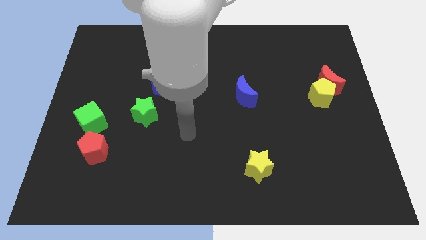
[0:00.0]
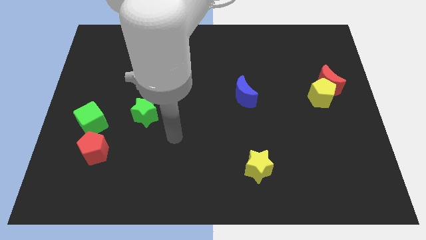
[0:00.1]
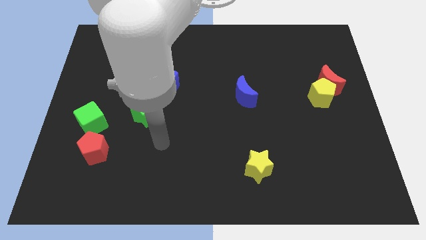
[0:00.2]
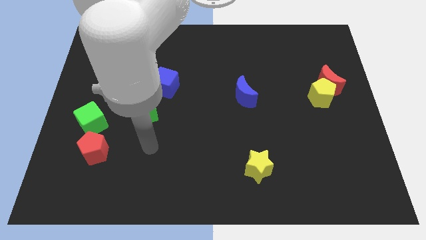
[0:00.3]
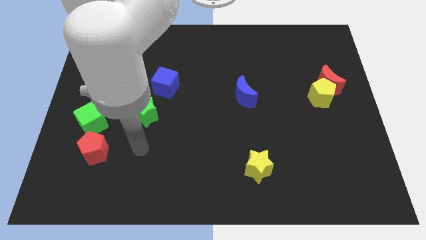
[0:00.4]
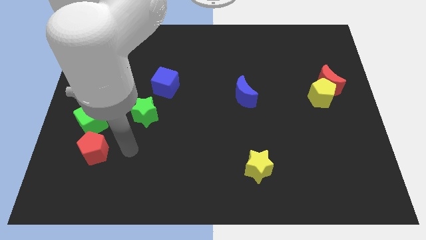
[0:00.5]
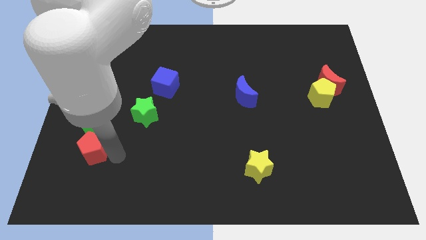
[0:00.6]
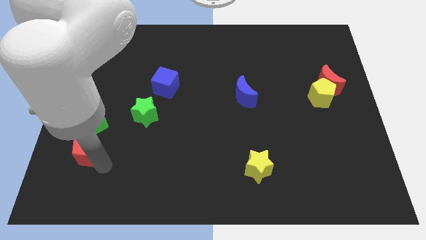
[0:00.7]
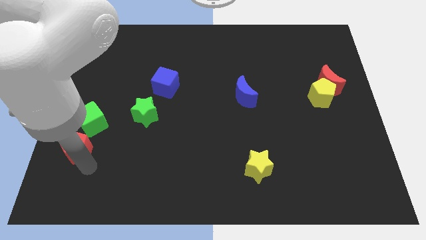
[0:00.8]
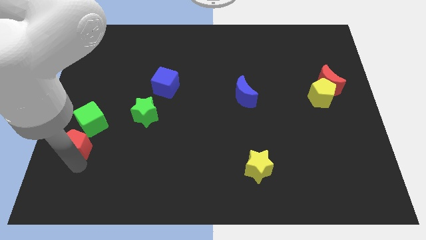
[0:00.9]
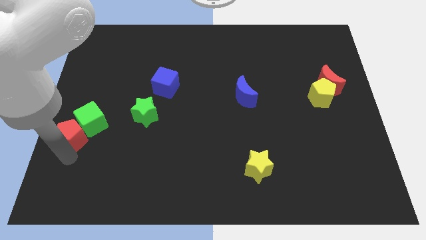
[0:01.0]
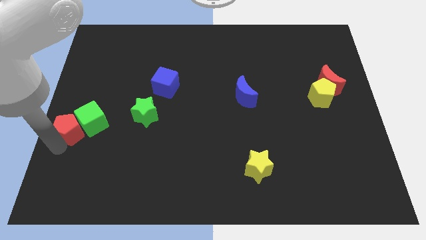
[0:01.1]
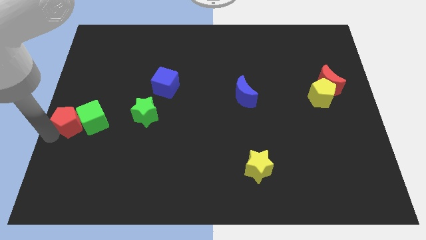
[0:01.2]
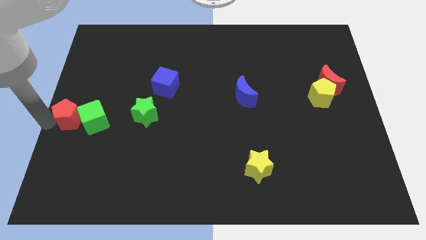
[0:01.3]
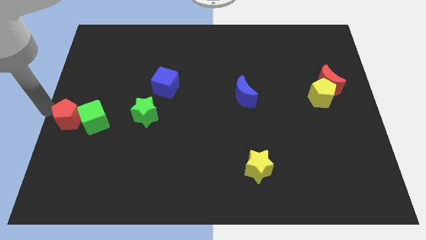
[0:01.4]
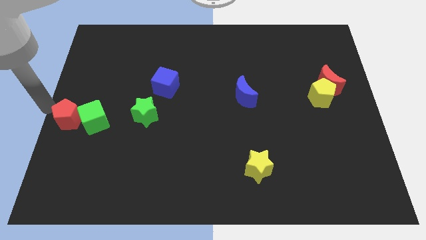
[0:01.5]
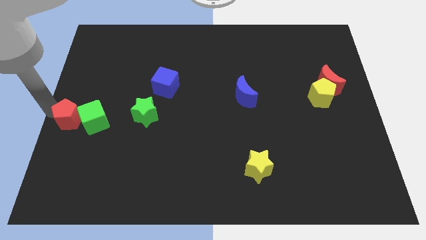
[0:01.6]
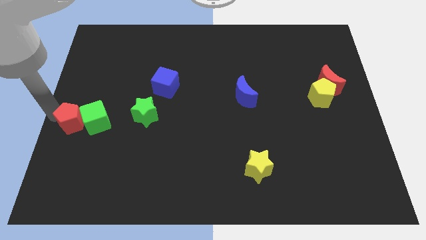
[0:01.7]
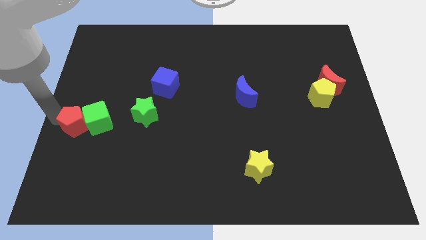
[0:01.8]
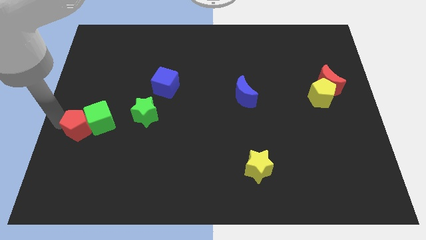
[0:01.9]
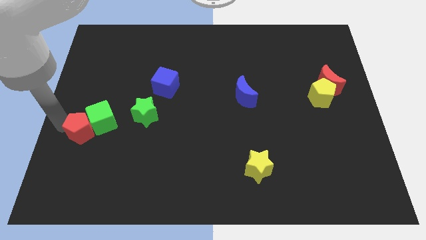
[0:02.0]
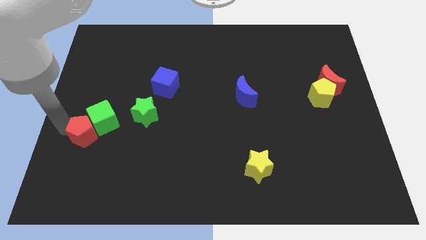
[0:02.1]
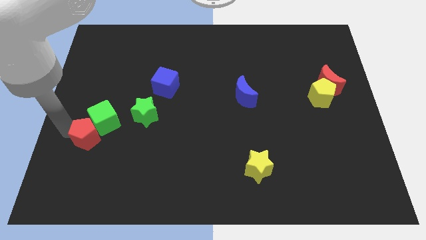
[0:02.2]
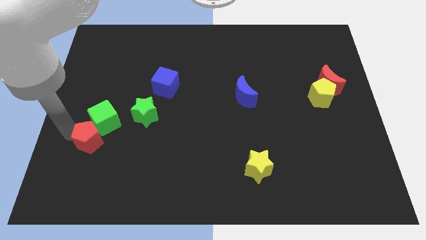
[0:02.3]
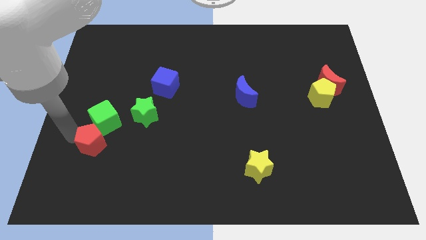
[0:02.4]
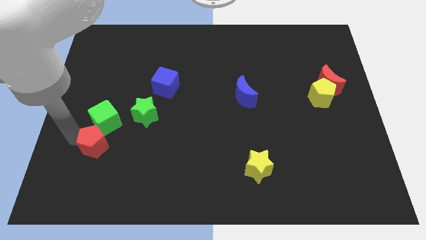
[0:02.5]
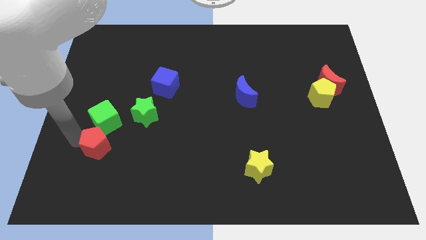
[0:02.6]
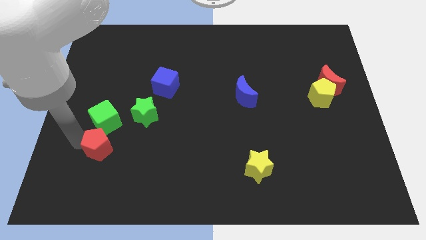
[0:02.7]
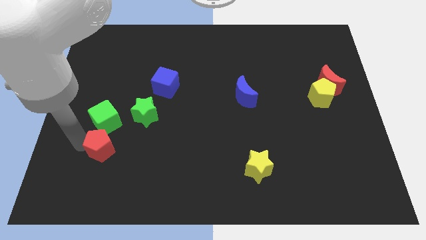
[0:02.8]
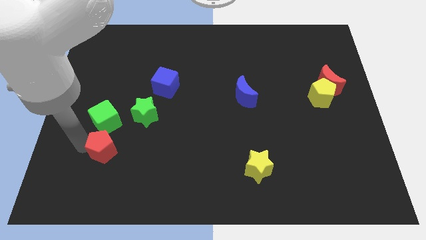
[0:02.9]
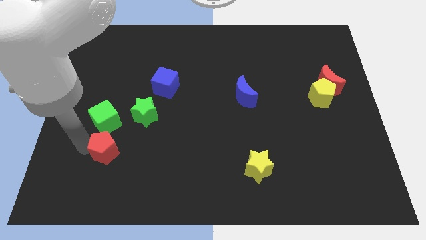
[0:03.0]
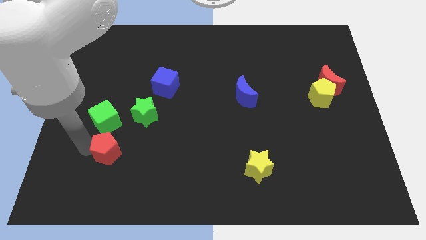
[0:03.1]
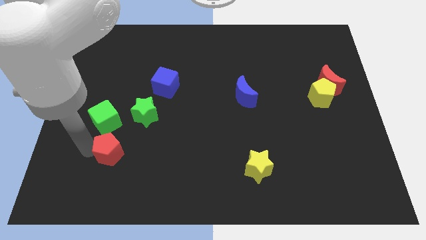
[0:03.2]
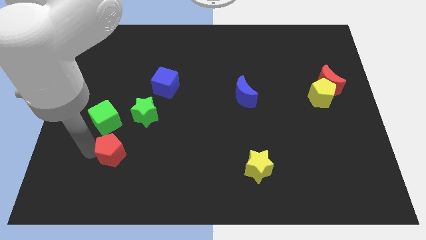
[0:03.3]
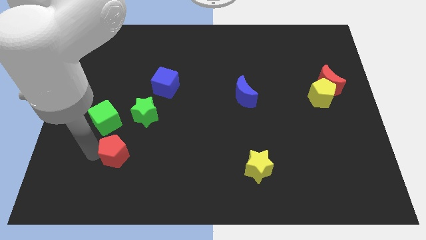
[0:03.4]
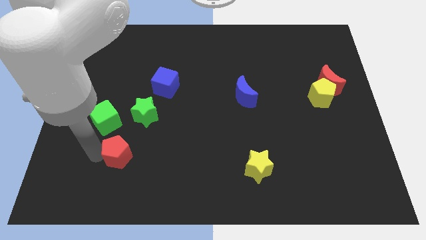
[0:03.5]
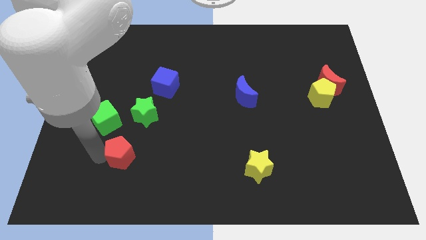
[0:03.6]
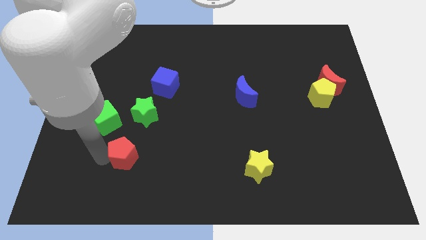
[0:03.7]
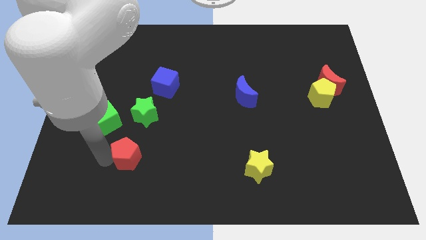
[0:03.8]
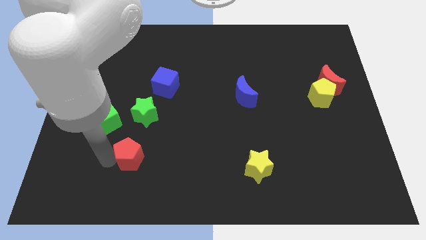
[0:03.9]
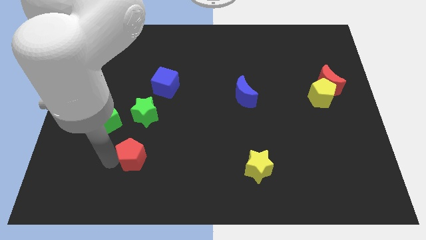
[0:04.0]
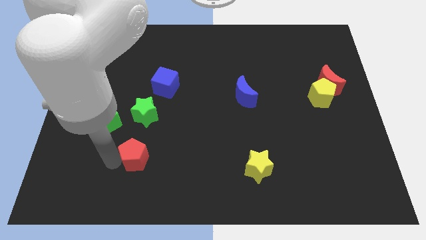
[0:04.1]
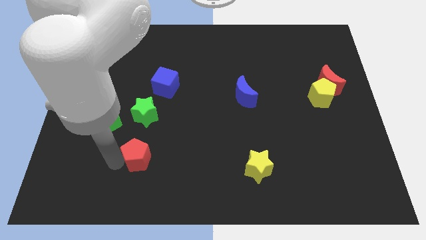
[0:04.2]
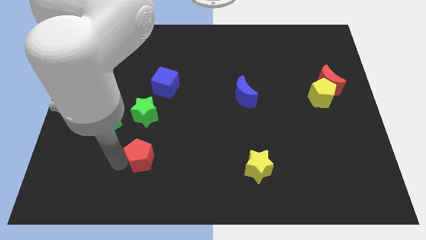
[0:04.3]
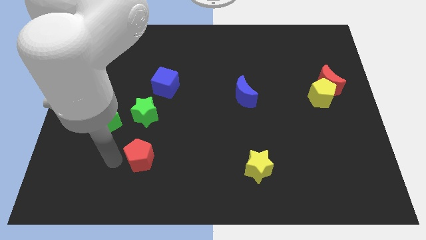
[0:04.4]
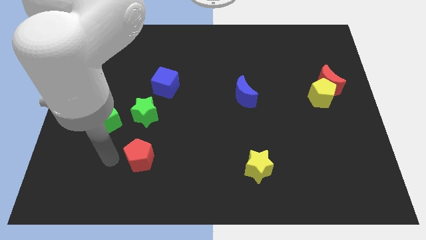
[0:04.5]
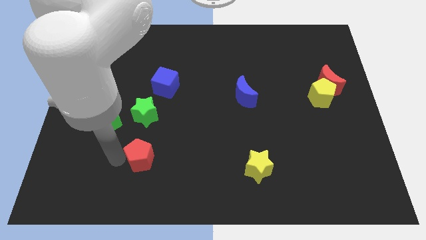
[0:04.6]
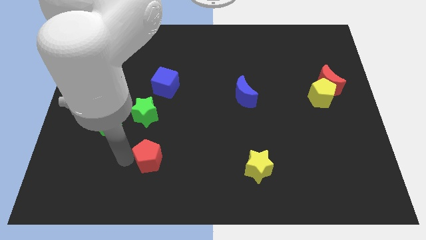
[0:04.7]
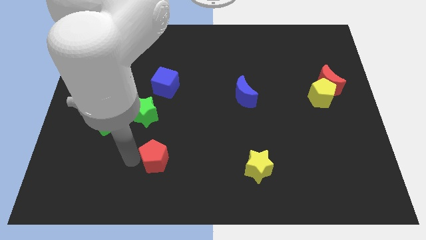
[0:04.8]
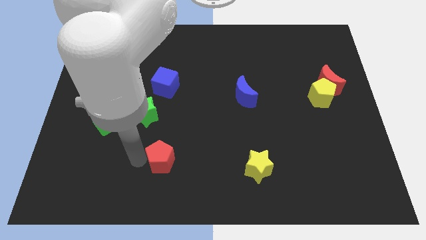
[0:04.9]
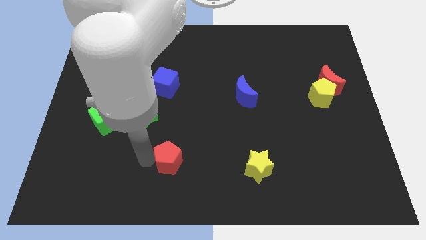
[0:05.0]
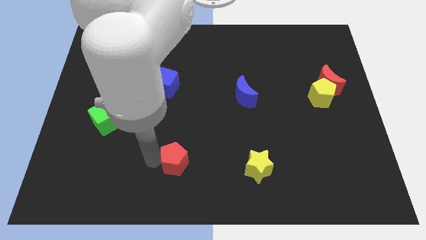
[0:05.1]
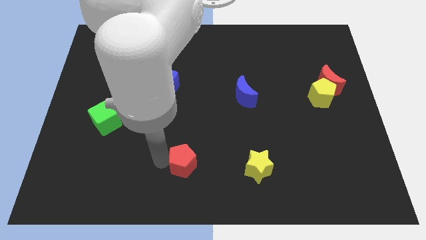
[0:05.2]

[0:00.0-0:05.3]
slide the red pentagon to the left of the yellow star

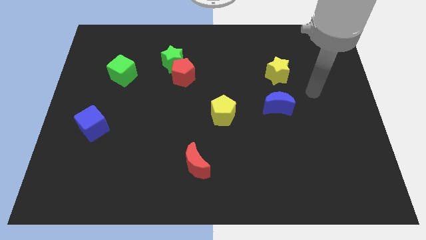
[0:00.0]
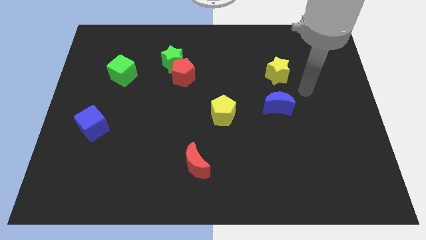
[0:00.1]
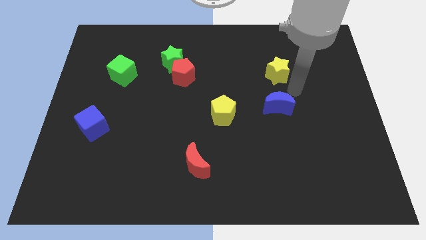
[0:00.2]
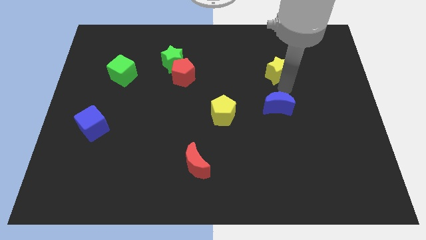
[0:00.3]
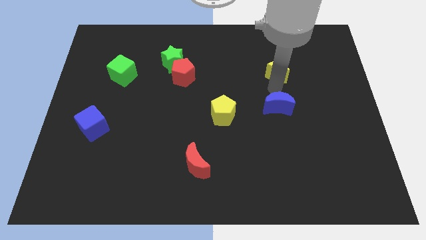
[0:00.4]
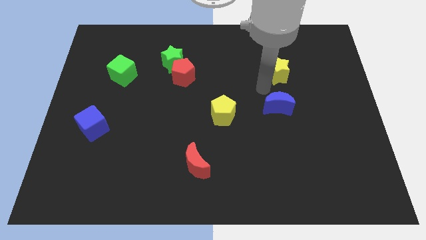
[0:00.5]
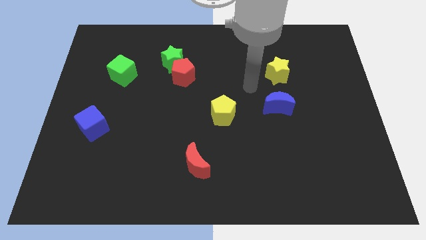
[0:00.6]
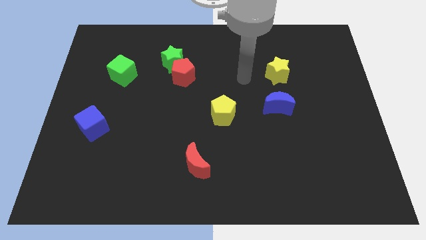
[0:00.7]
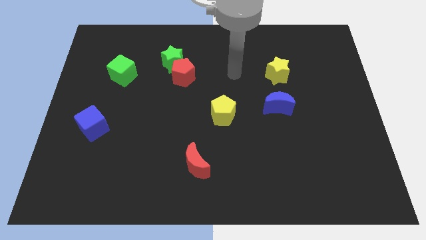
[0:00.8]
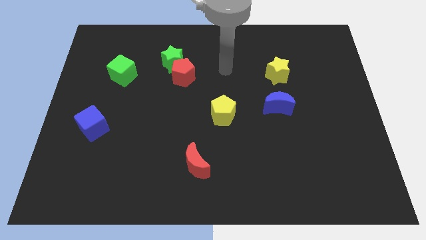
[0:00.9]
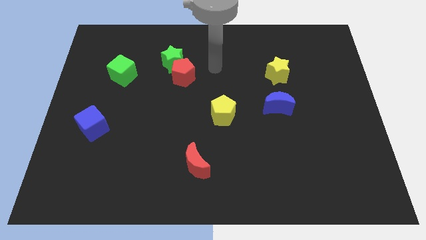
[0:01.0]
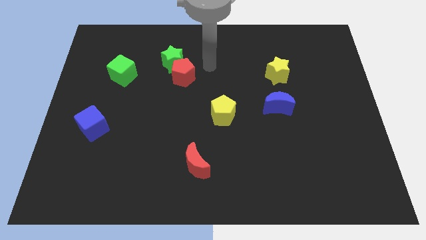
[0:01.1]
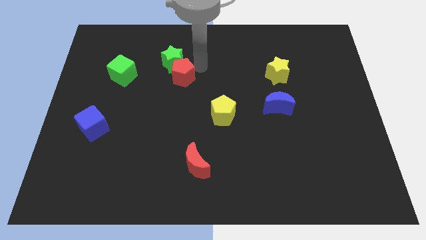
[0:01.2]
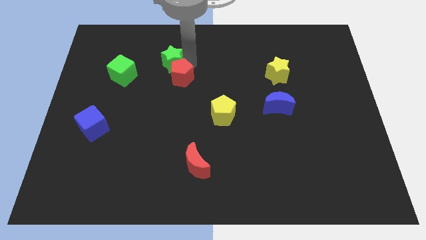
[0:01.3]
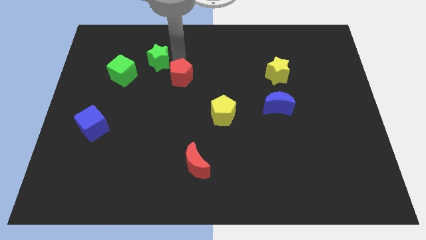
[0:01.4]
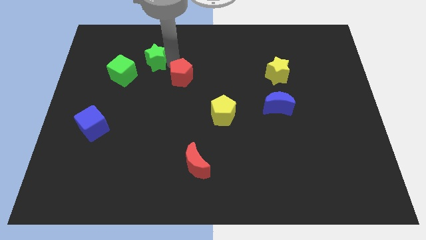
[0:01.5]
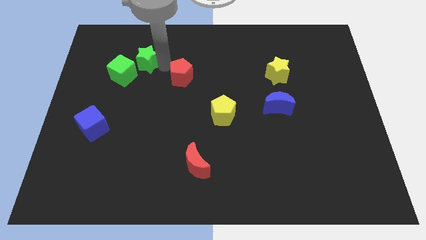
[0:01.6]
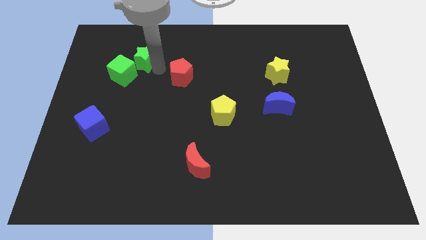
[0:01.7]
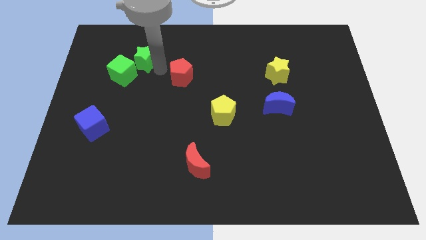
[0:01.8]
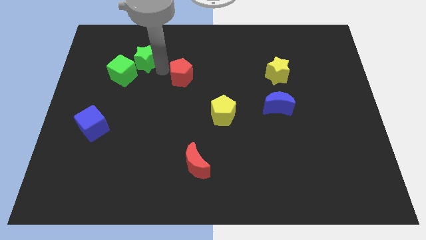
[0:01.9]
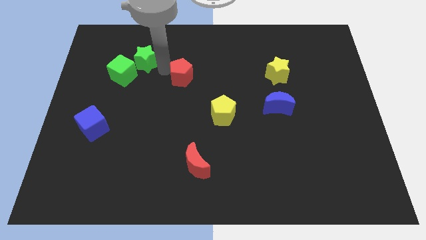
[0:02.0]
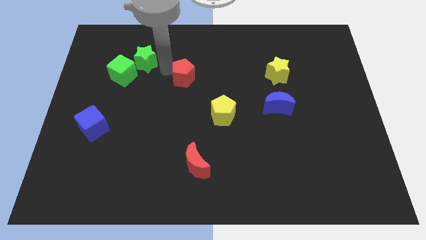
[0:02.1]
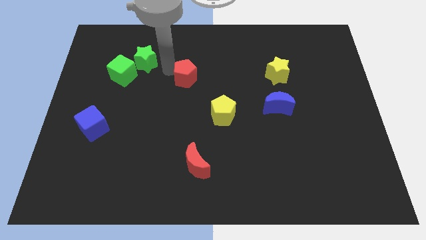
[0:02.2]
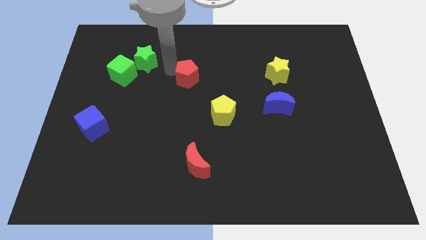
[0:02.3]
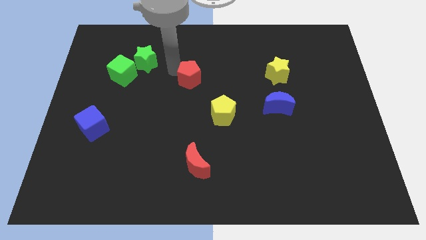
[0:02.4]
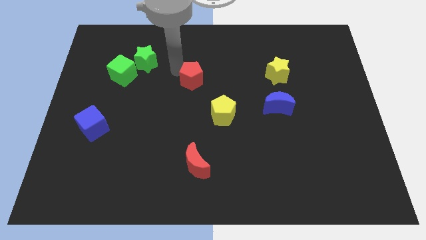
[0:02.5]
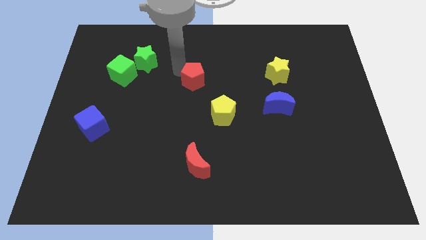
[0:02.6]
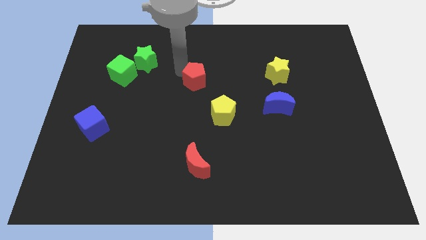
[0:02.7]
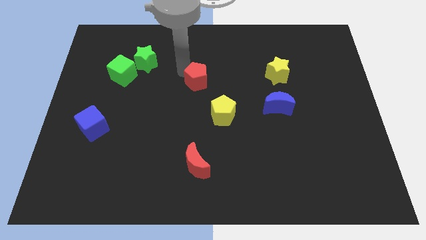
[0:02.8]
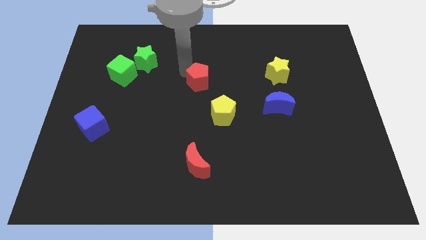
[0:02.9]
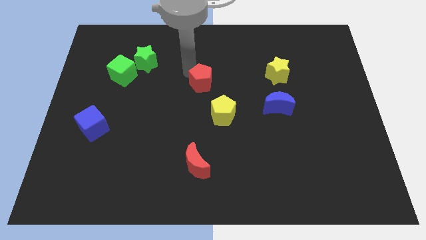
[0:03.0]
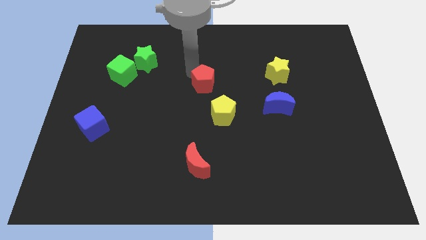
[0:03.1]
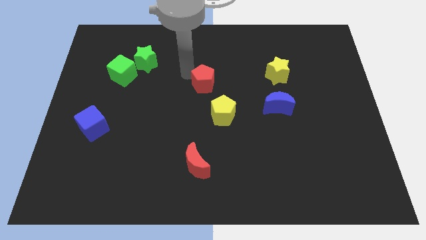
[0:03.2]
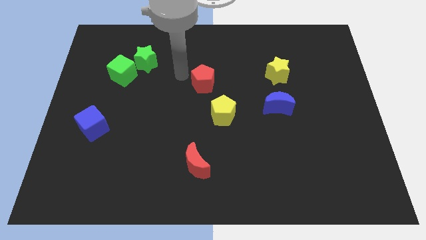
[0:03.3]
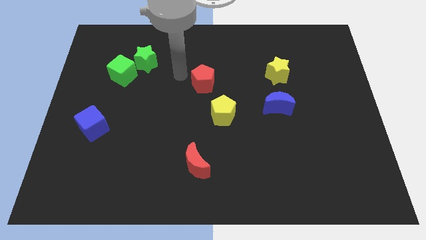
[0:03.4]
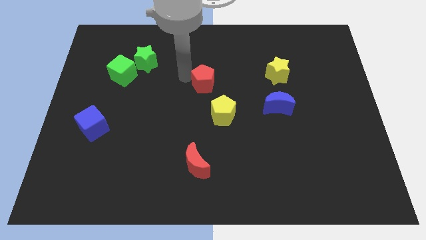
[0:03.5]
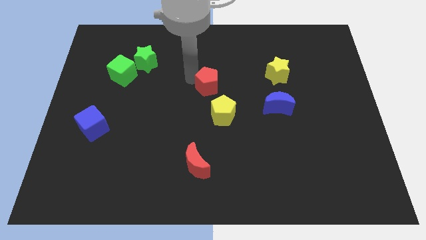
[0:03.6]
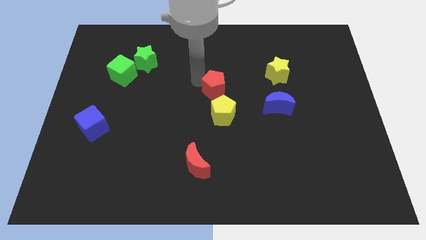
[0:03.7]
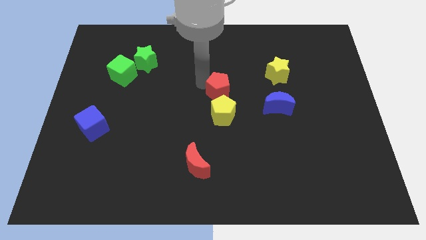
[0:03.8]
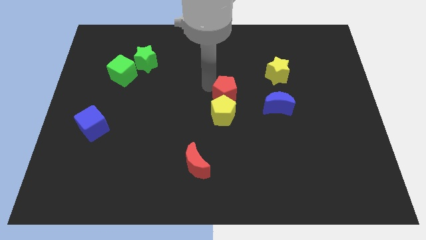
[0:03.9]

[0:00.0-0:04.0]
move the red pentagon to the top right side of the yellow pentagon
